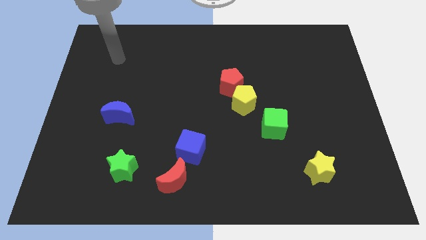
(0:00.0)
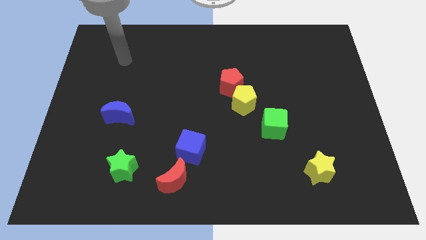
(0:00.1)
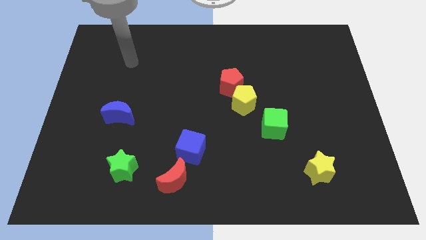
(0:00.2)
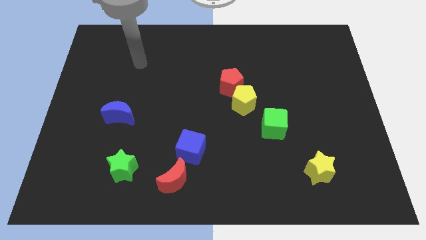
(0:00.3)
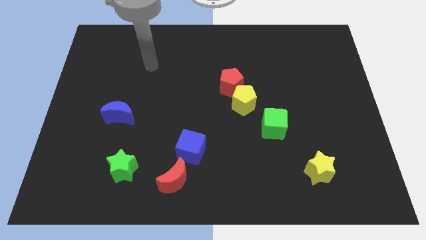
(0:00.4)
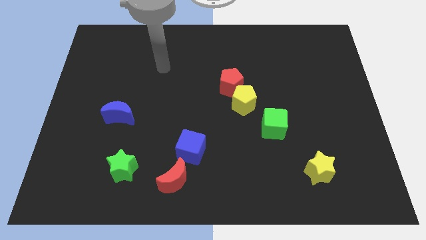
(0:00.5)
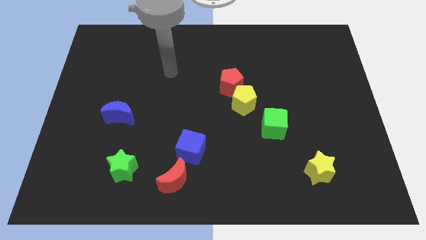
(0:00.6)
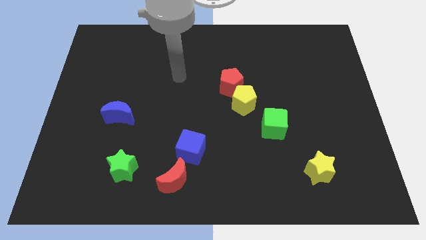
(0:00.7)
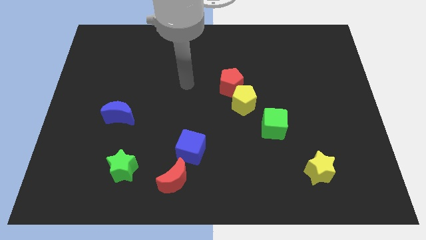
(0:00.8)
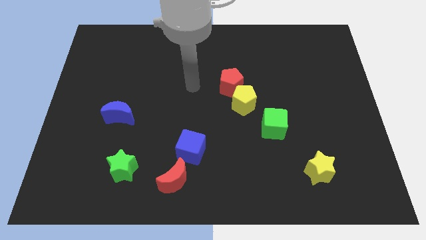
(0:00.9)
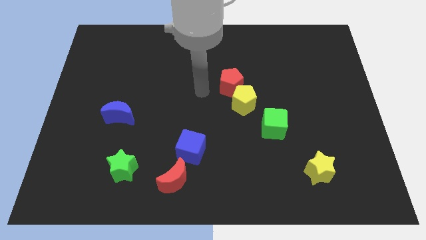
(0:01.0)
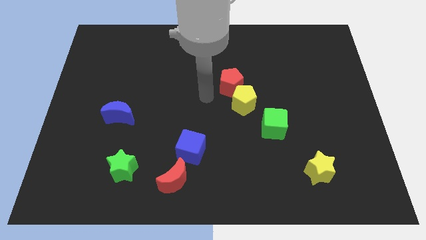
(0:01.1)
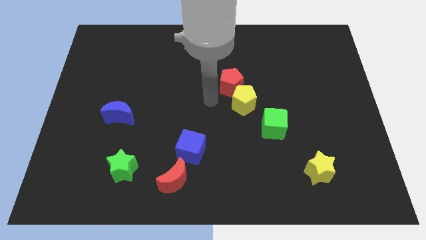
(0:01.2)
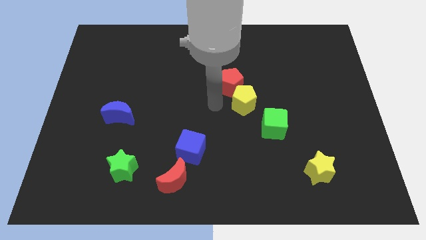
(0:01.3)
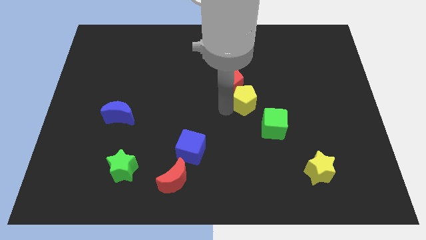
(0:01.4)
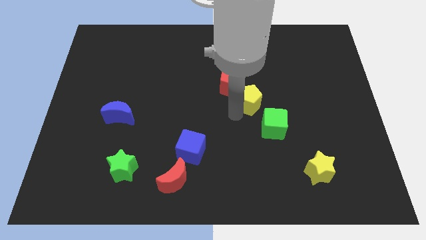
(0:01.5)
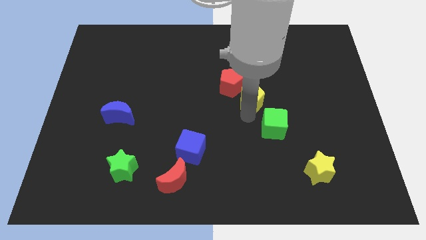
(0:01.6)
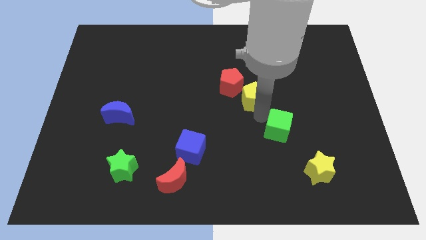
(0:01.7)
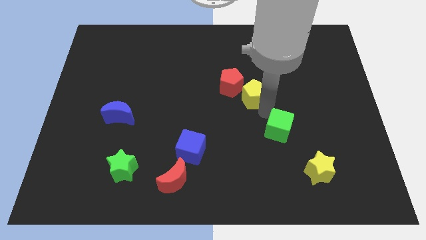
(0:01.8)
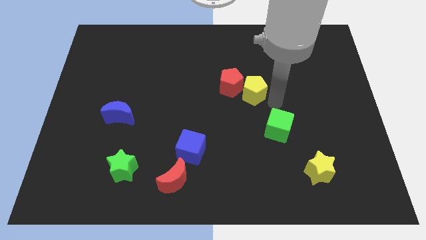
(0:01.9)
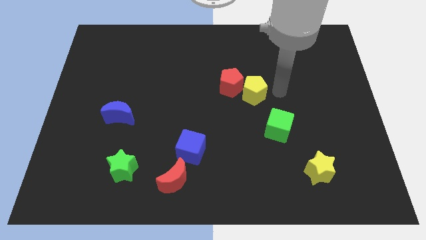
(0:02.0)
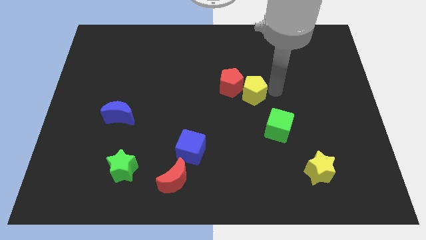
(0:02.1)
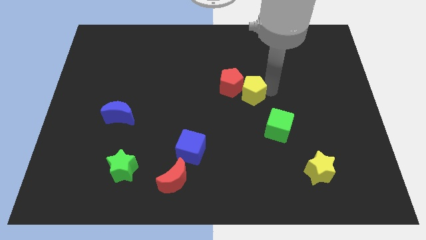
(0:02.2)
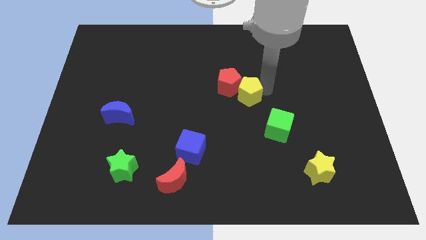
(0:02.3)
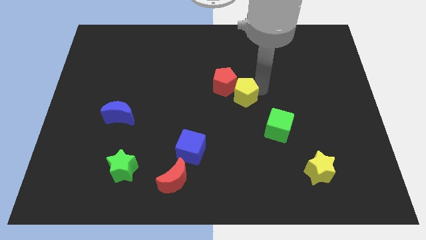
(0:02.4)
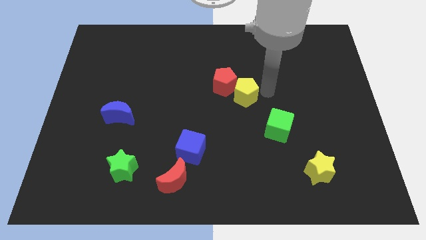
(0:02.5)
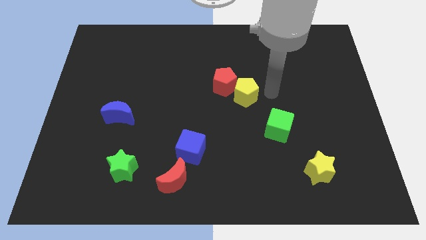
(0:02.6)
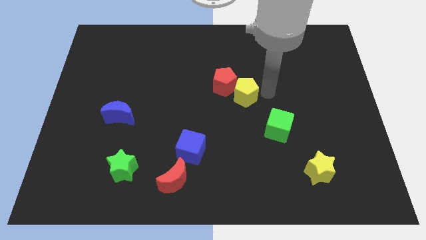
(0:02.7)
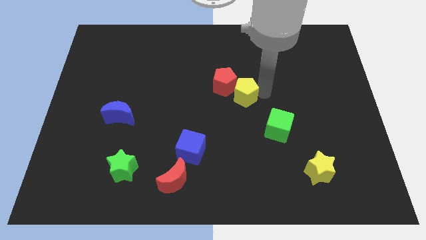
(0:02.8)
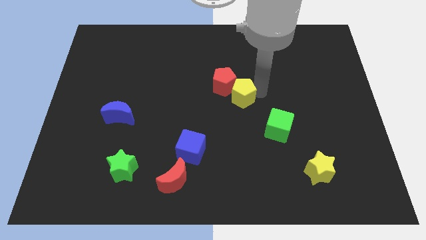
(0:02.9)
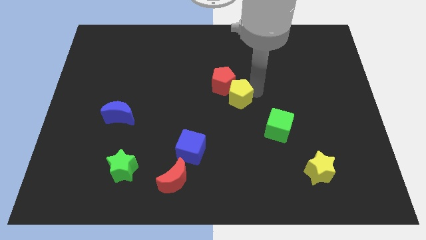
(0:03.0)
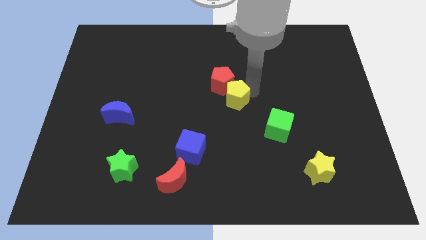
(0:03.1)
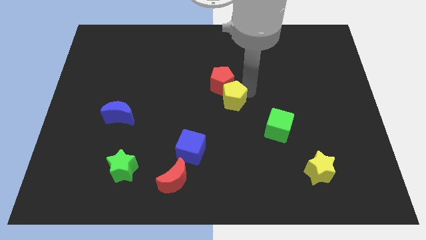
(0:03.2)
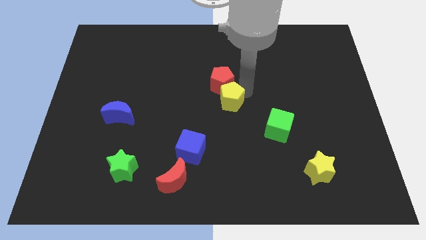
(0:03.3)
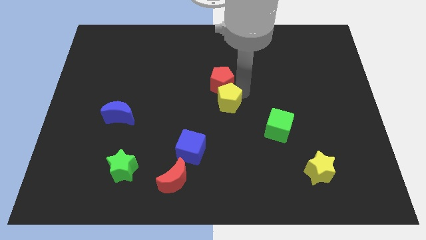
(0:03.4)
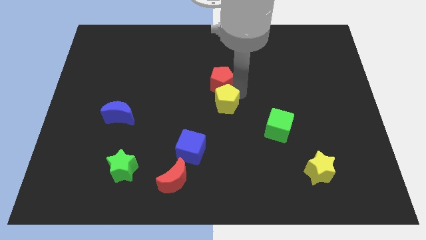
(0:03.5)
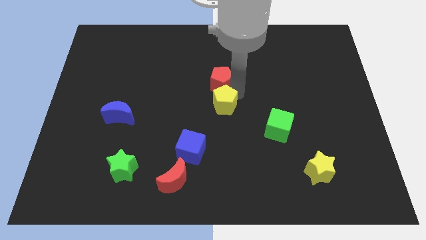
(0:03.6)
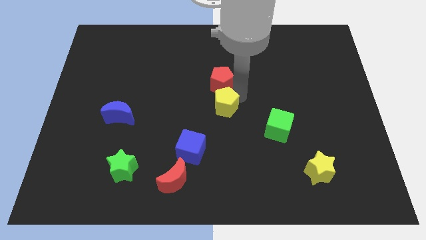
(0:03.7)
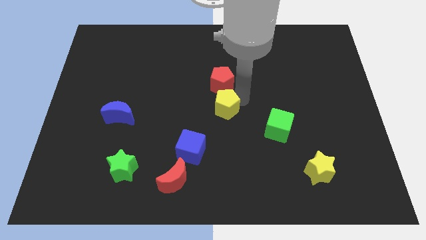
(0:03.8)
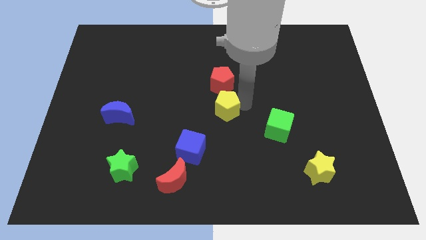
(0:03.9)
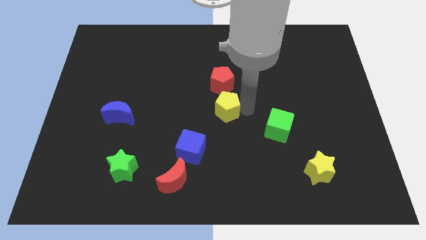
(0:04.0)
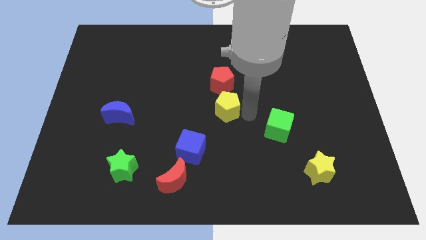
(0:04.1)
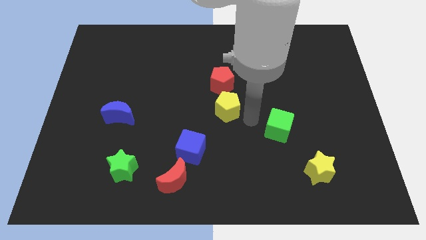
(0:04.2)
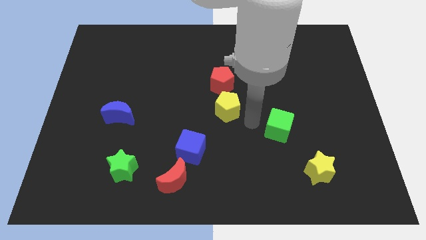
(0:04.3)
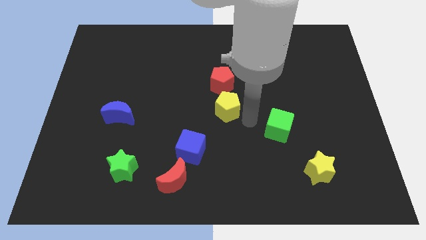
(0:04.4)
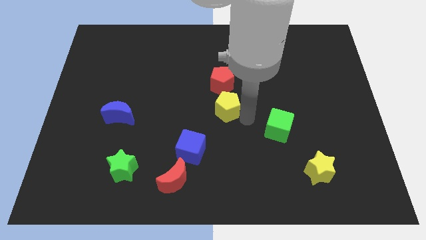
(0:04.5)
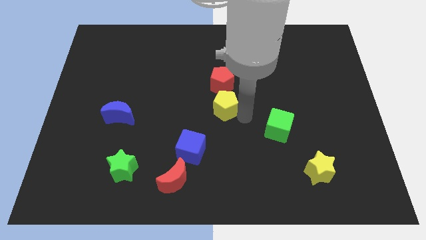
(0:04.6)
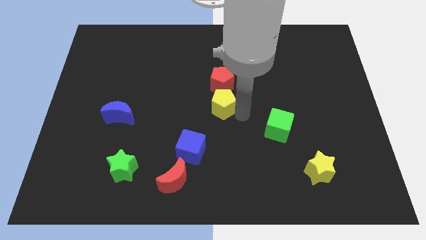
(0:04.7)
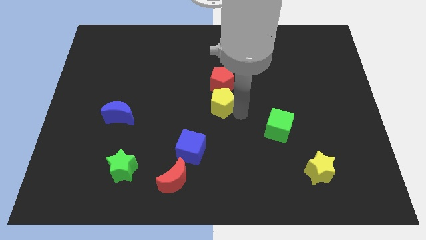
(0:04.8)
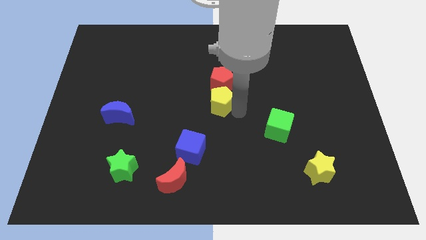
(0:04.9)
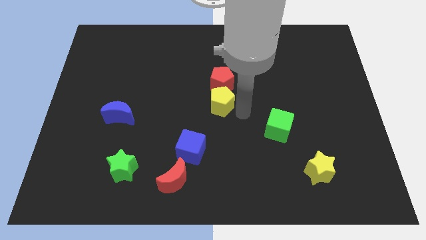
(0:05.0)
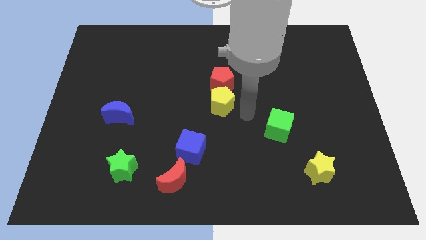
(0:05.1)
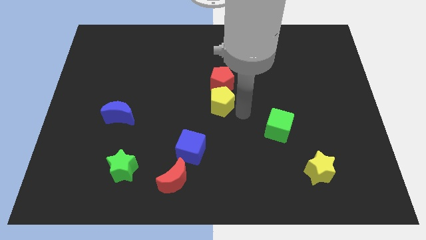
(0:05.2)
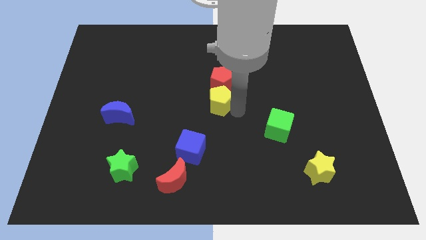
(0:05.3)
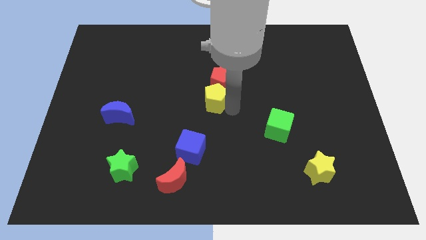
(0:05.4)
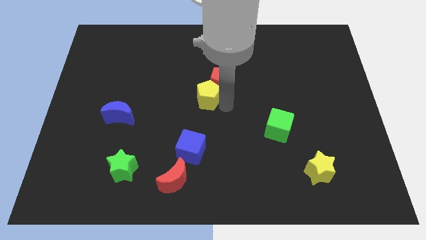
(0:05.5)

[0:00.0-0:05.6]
move the yellow pentagon to the left a little

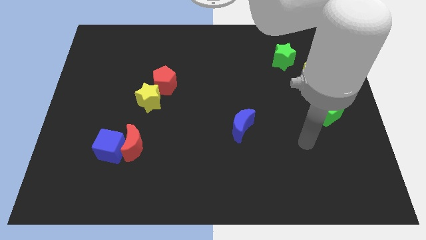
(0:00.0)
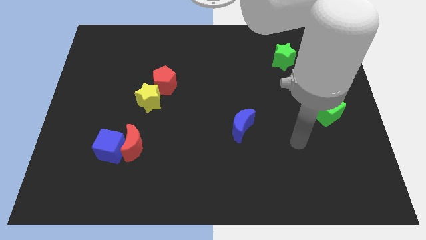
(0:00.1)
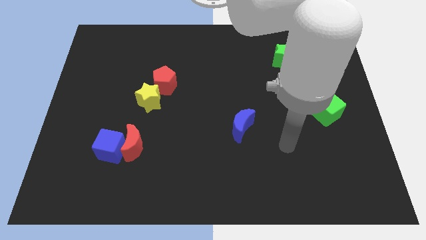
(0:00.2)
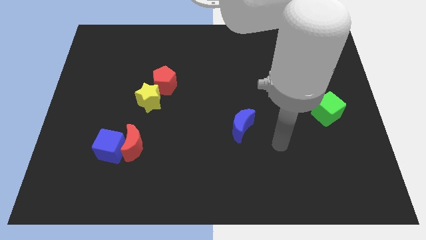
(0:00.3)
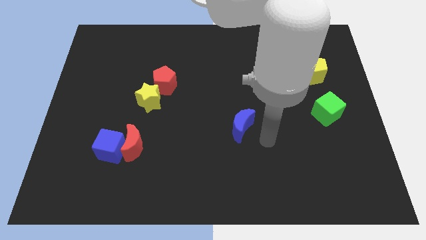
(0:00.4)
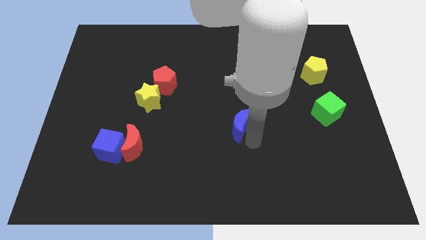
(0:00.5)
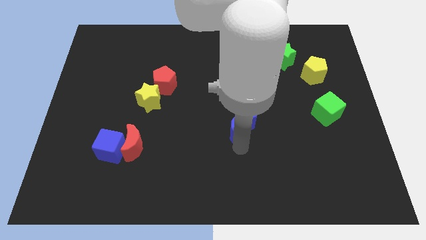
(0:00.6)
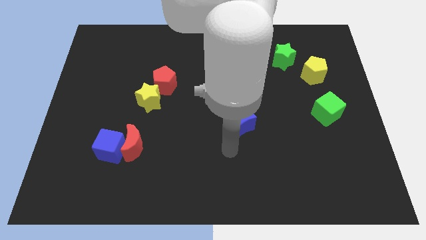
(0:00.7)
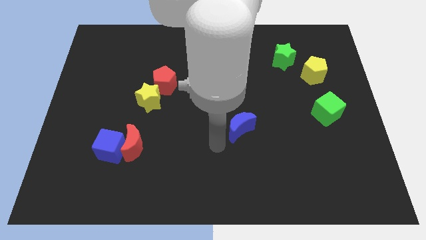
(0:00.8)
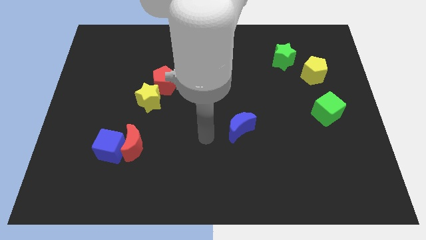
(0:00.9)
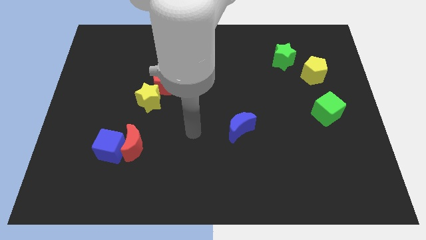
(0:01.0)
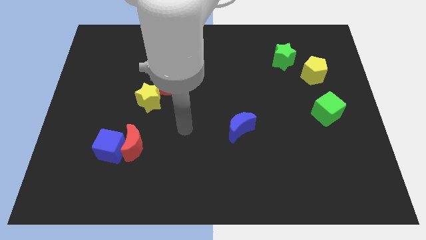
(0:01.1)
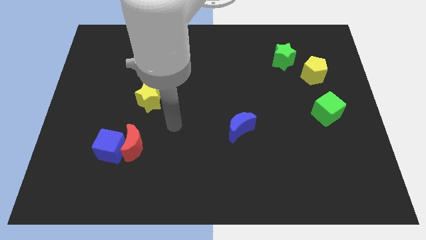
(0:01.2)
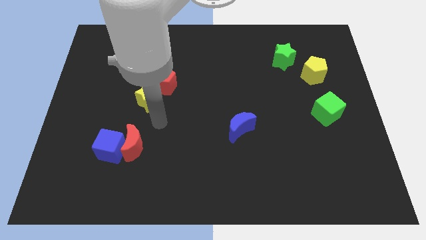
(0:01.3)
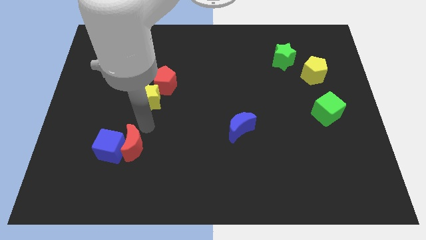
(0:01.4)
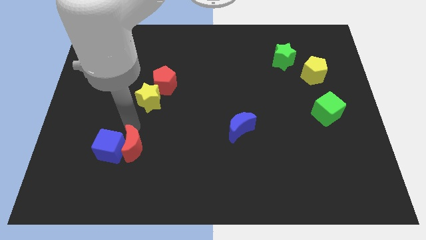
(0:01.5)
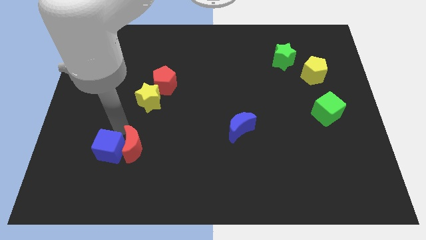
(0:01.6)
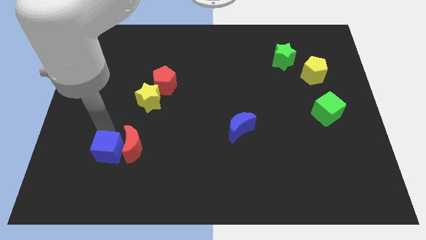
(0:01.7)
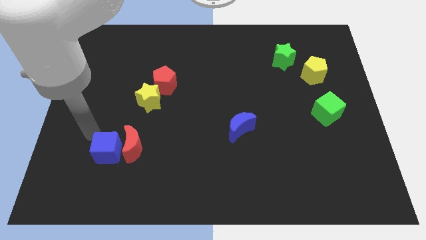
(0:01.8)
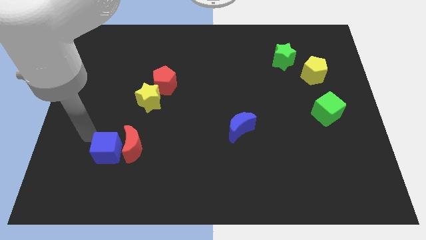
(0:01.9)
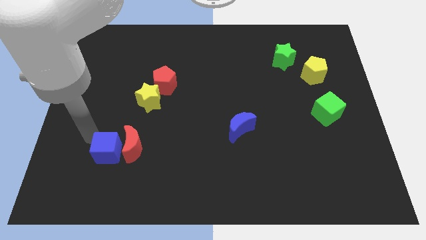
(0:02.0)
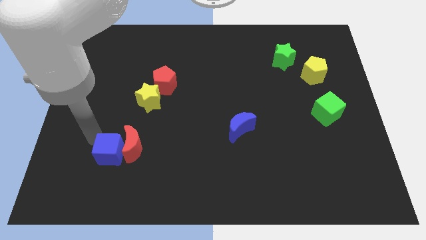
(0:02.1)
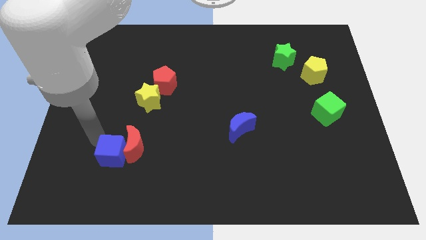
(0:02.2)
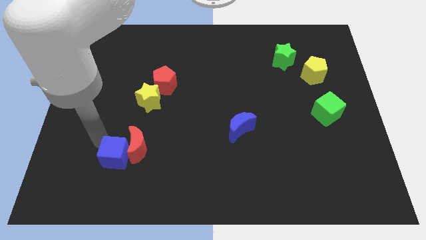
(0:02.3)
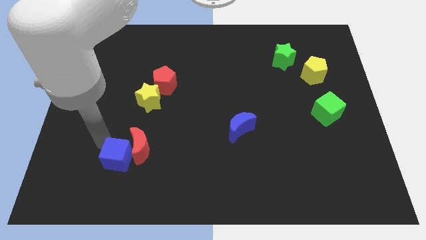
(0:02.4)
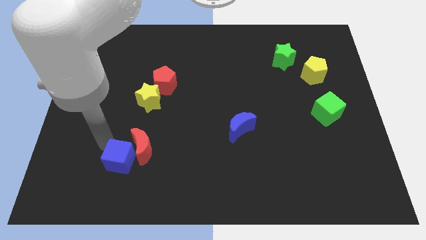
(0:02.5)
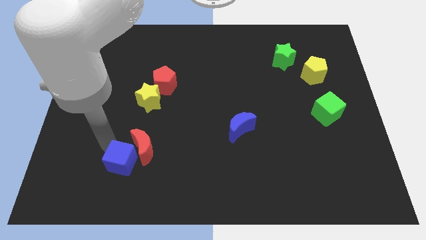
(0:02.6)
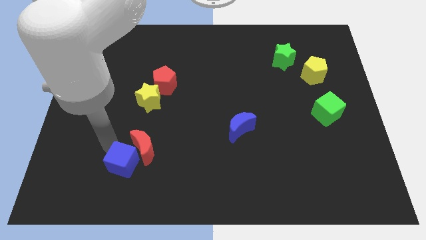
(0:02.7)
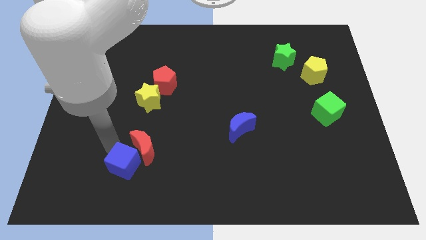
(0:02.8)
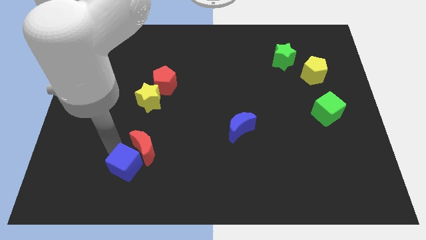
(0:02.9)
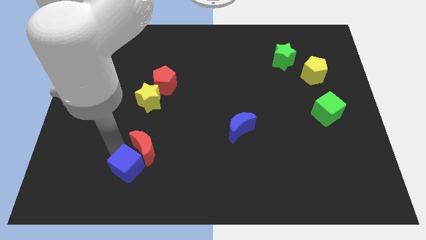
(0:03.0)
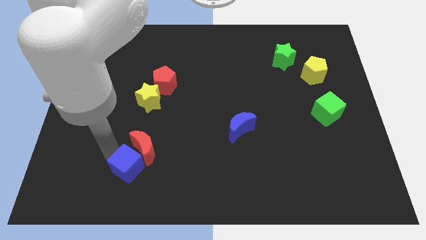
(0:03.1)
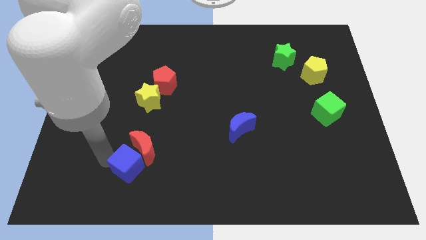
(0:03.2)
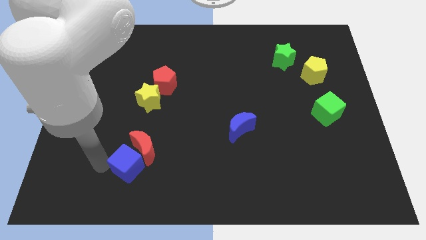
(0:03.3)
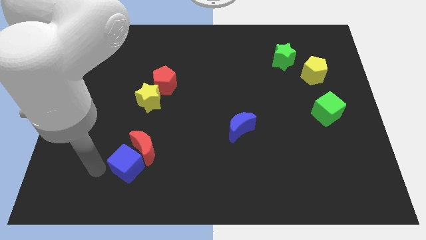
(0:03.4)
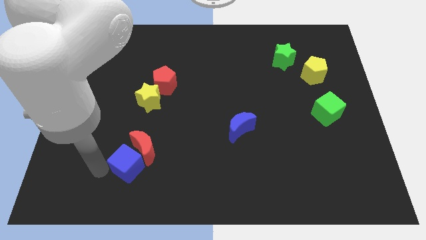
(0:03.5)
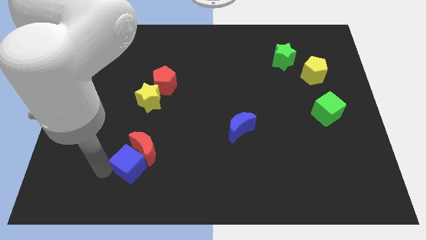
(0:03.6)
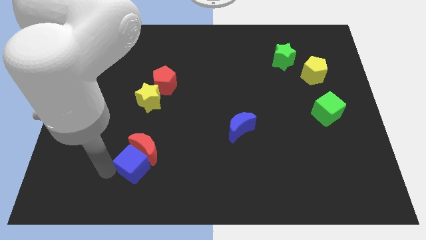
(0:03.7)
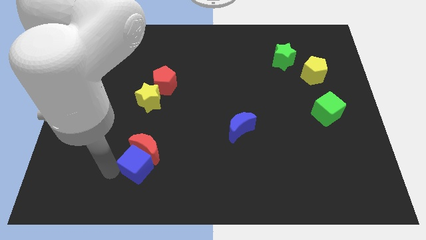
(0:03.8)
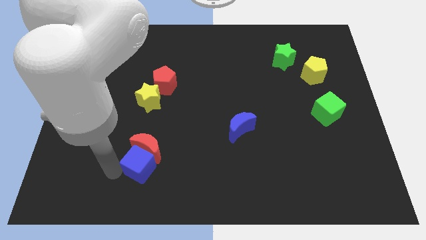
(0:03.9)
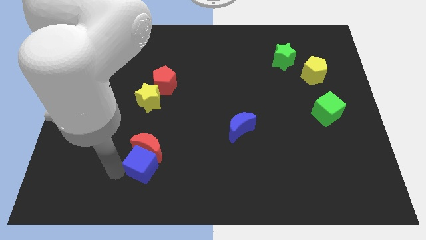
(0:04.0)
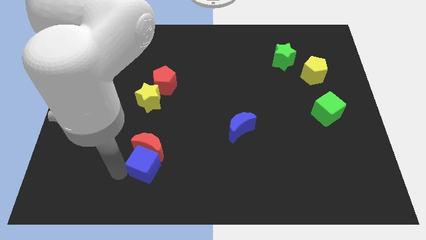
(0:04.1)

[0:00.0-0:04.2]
slide the blue cube right a little
